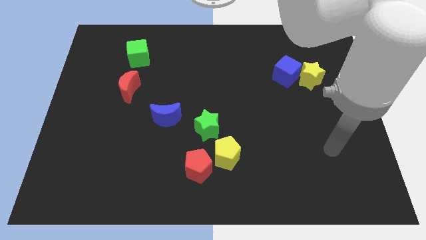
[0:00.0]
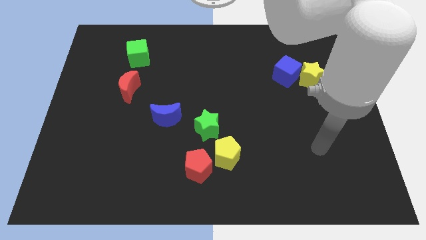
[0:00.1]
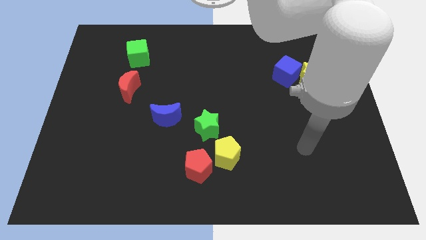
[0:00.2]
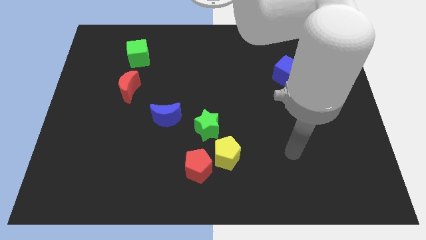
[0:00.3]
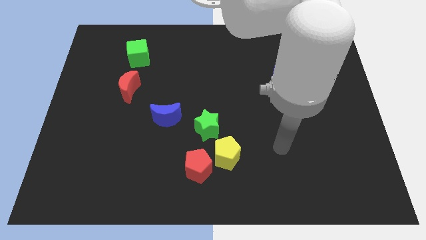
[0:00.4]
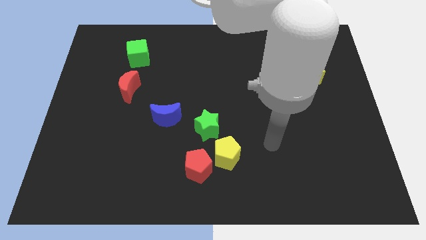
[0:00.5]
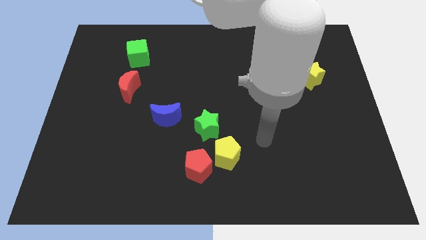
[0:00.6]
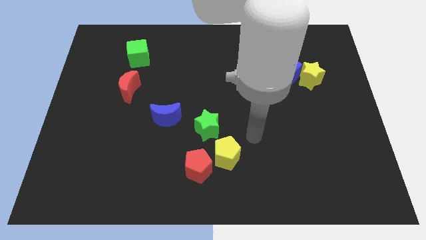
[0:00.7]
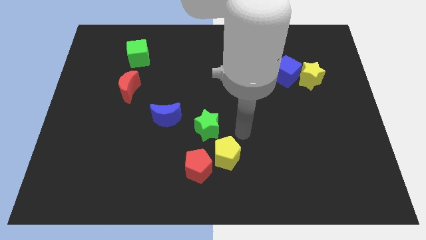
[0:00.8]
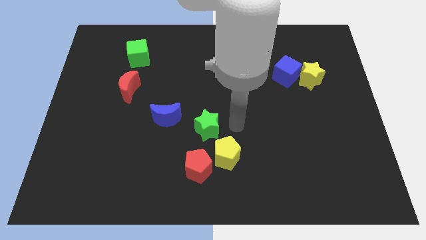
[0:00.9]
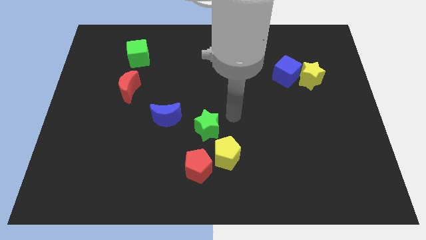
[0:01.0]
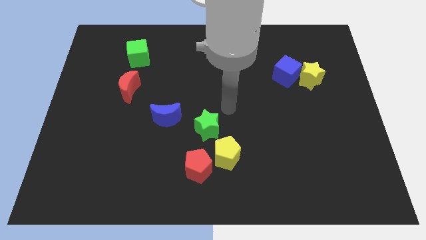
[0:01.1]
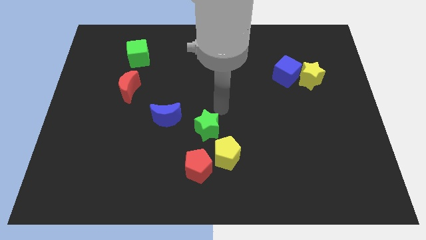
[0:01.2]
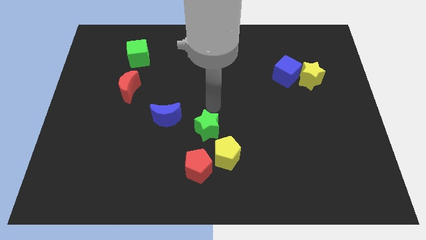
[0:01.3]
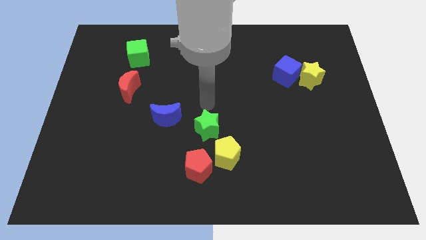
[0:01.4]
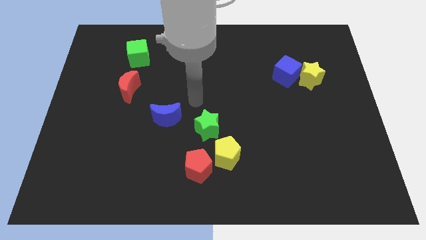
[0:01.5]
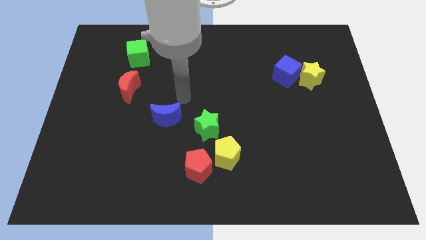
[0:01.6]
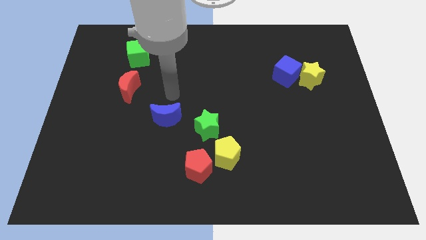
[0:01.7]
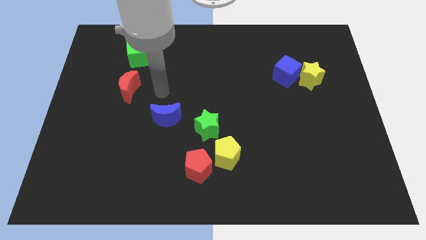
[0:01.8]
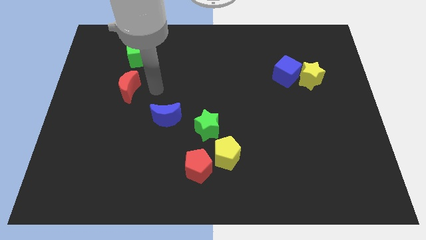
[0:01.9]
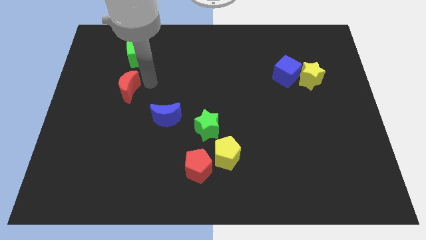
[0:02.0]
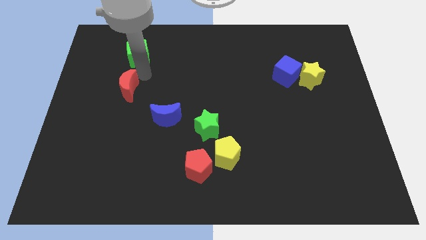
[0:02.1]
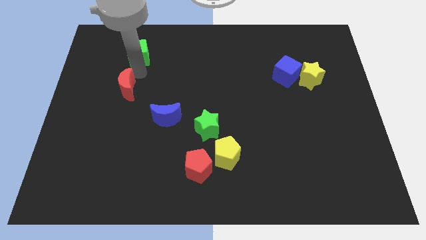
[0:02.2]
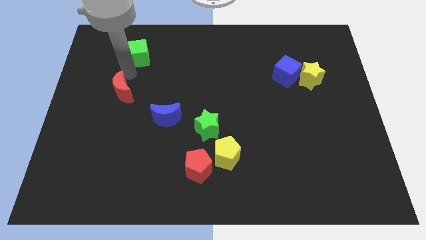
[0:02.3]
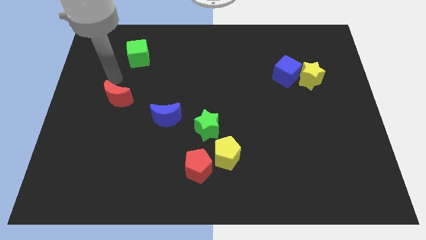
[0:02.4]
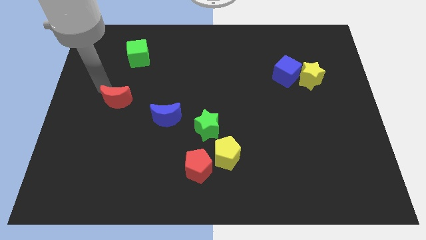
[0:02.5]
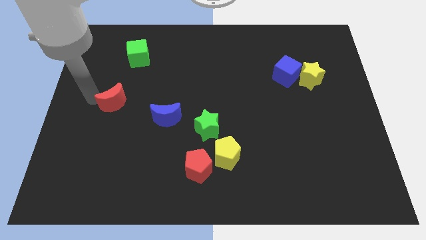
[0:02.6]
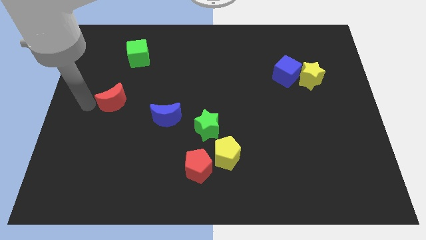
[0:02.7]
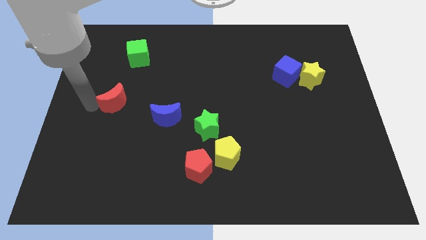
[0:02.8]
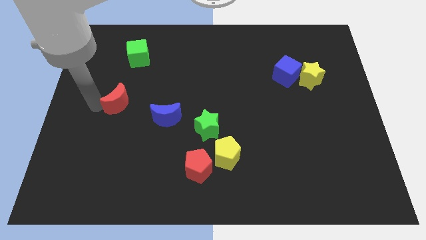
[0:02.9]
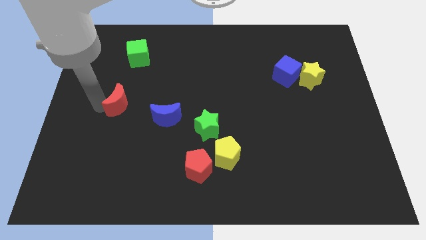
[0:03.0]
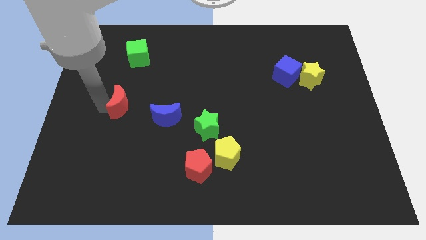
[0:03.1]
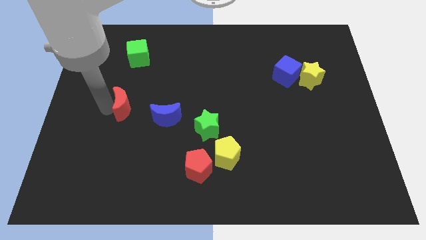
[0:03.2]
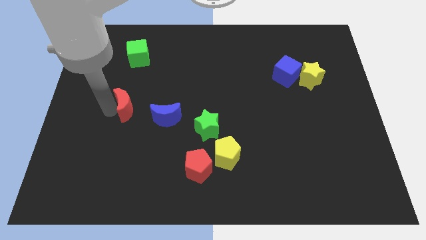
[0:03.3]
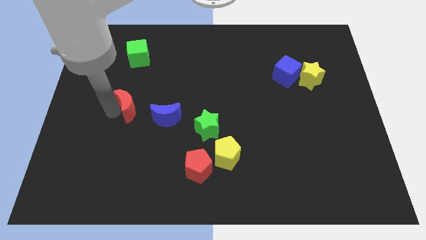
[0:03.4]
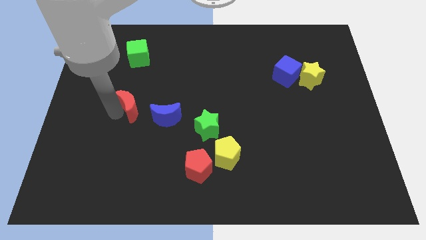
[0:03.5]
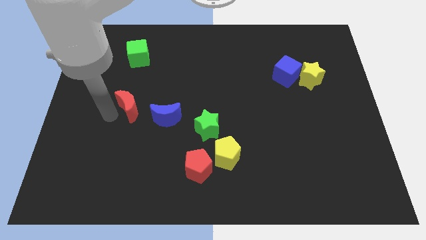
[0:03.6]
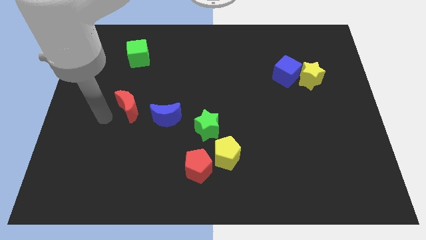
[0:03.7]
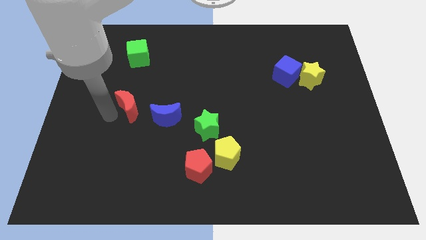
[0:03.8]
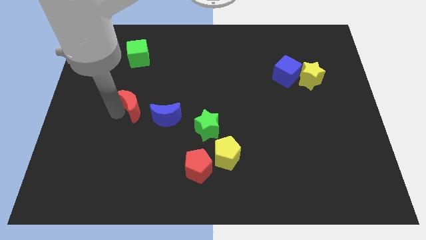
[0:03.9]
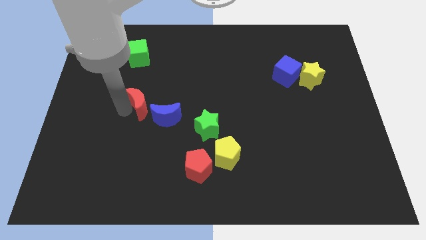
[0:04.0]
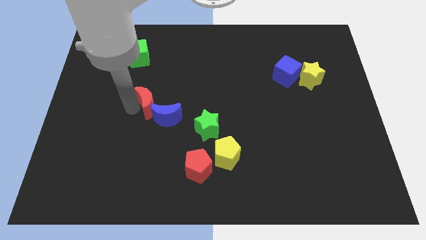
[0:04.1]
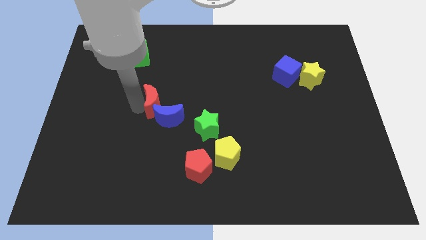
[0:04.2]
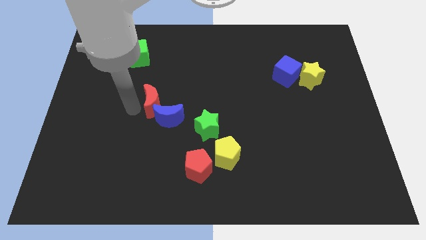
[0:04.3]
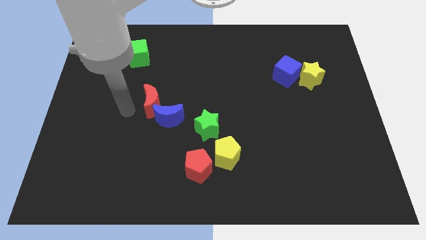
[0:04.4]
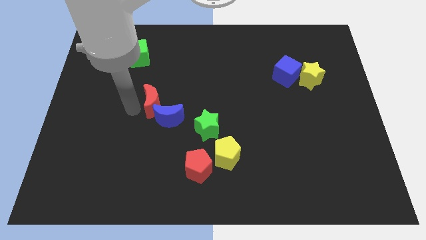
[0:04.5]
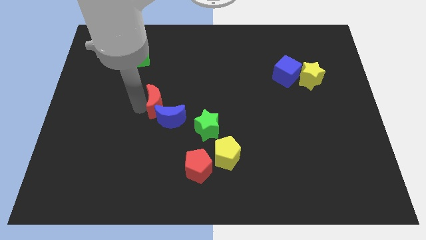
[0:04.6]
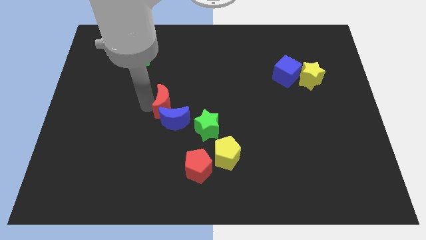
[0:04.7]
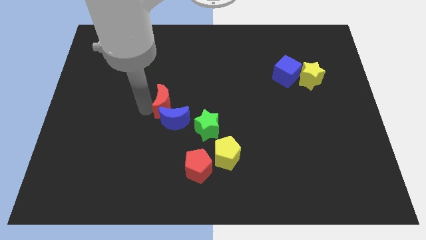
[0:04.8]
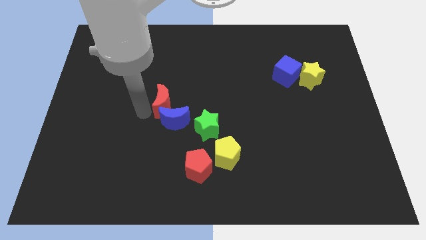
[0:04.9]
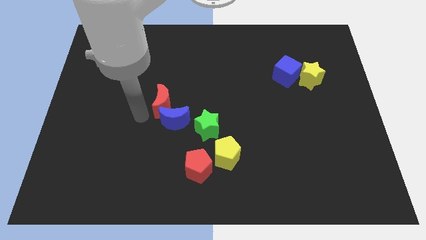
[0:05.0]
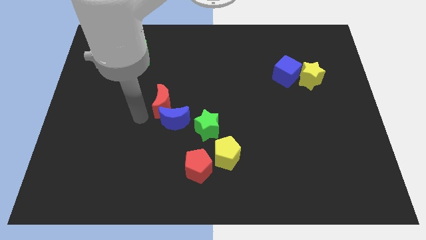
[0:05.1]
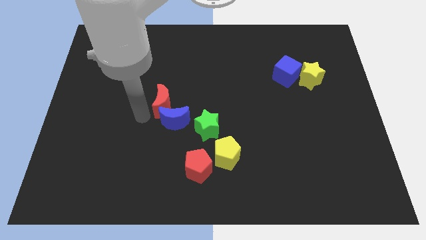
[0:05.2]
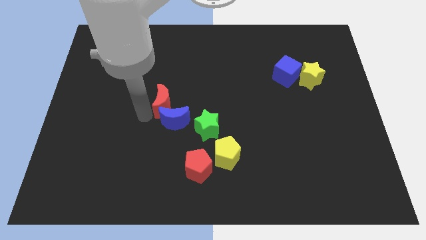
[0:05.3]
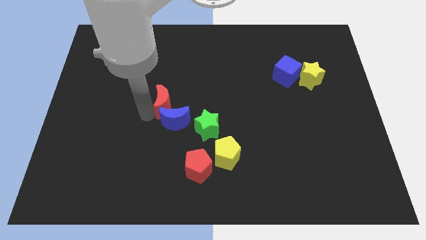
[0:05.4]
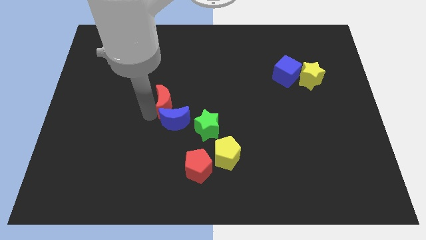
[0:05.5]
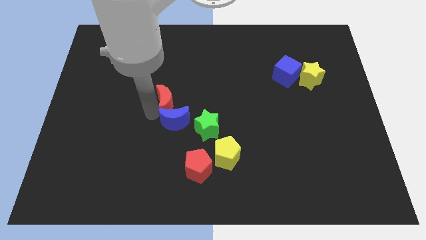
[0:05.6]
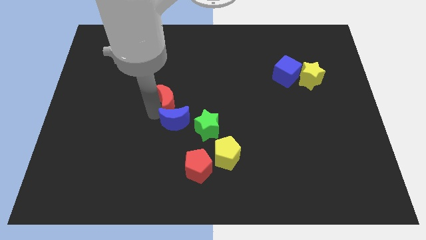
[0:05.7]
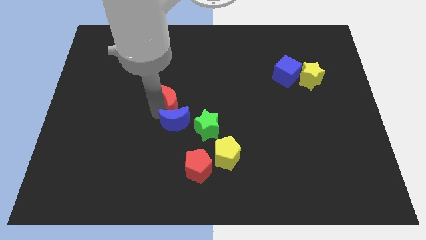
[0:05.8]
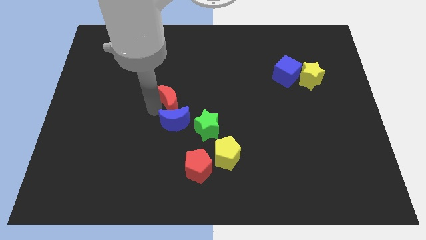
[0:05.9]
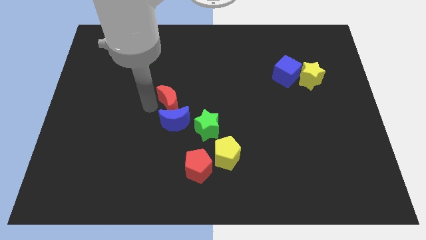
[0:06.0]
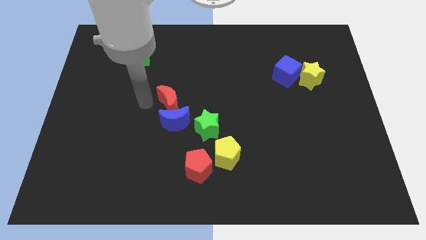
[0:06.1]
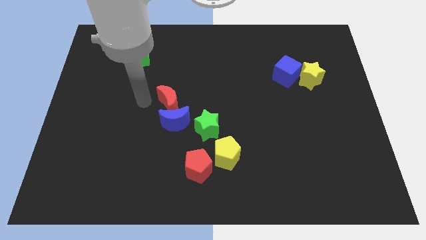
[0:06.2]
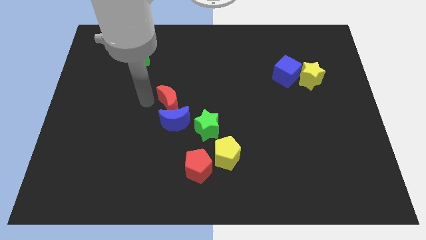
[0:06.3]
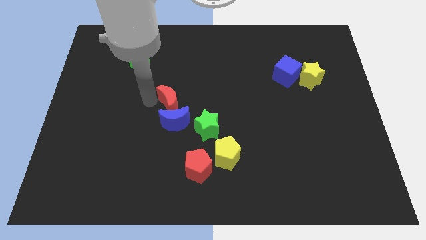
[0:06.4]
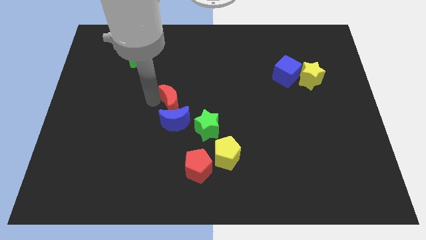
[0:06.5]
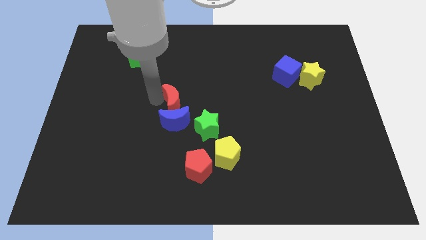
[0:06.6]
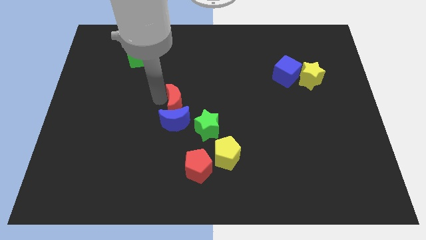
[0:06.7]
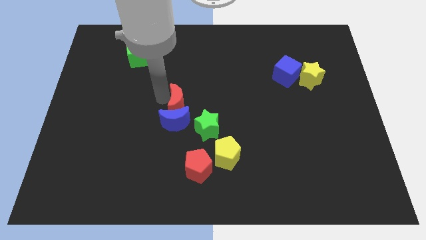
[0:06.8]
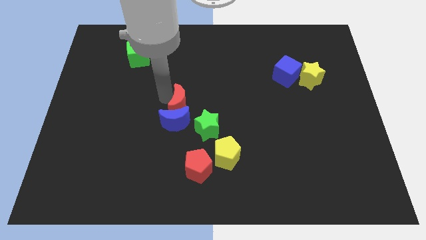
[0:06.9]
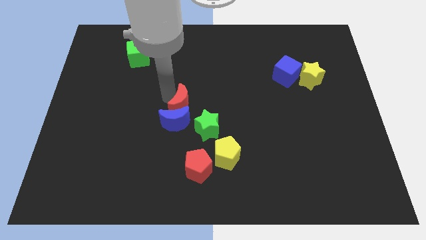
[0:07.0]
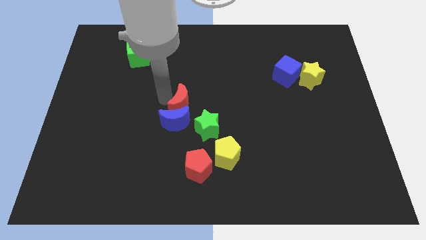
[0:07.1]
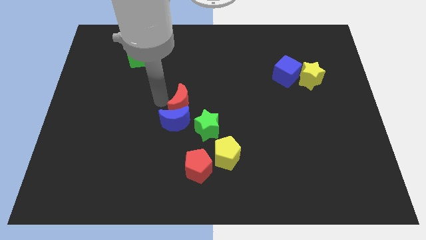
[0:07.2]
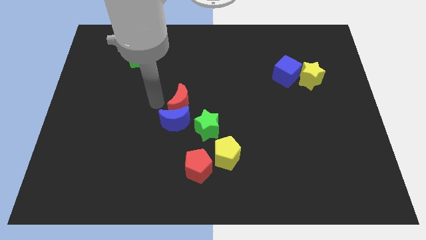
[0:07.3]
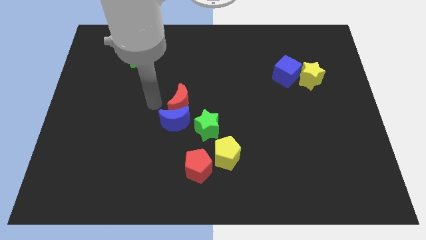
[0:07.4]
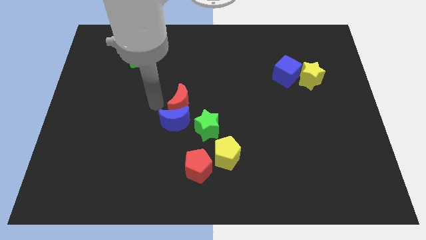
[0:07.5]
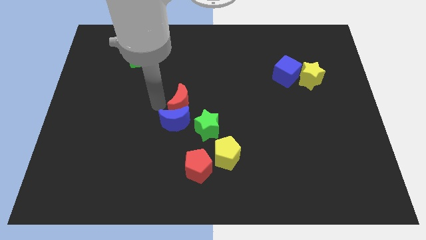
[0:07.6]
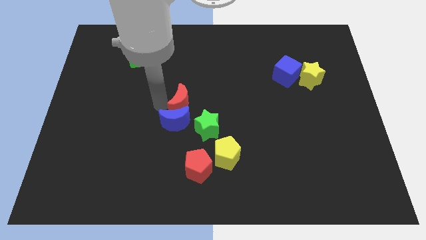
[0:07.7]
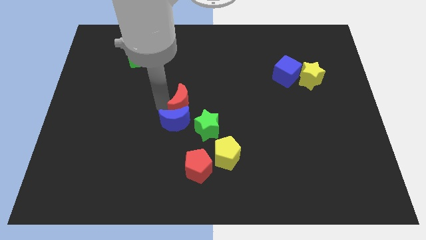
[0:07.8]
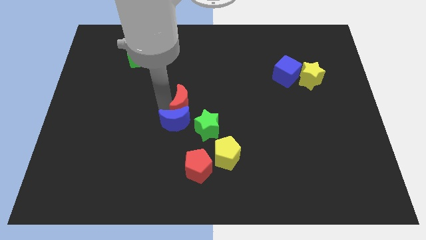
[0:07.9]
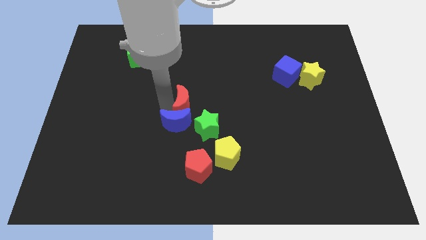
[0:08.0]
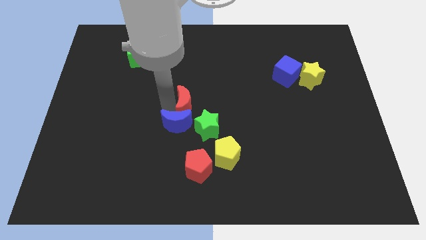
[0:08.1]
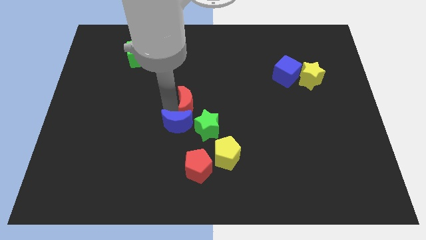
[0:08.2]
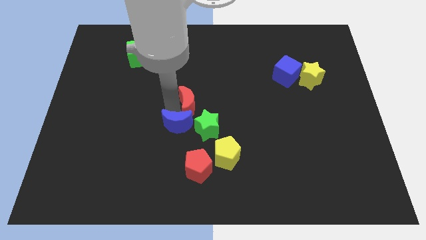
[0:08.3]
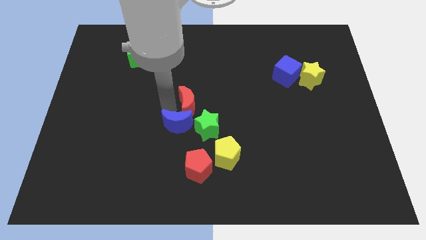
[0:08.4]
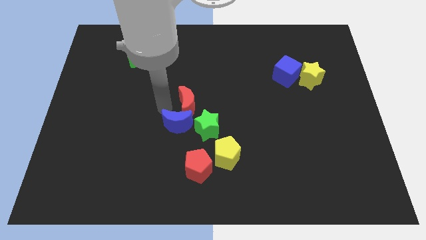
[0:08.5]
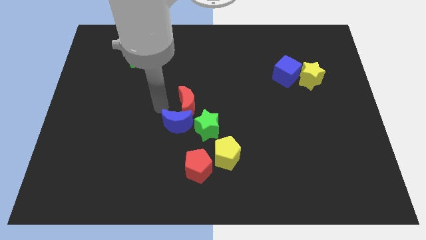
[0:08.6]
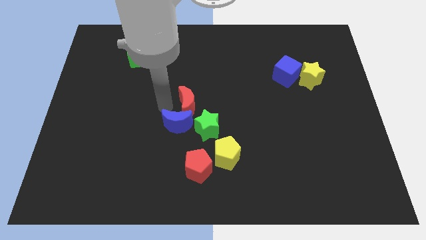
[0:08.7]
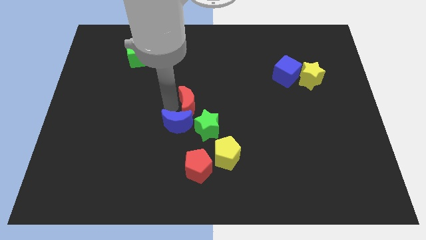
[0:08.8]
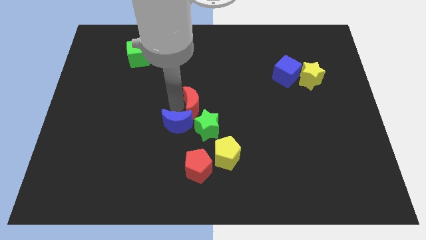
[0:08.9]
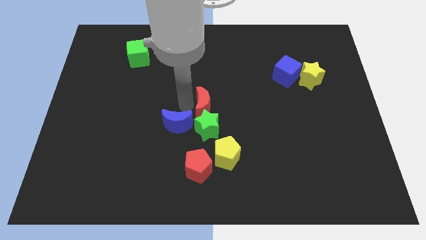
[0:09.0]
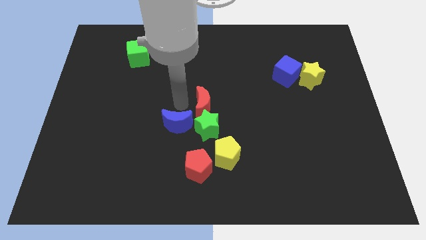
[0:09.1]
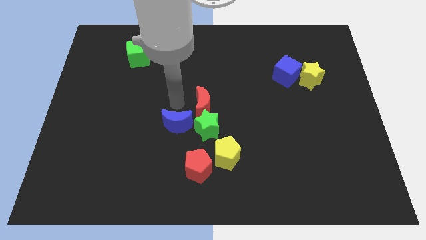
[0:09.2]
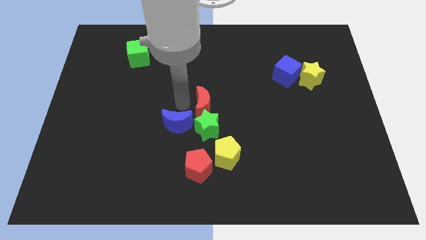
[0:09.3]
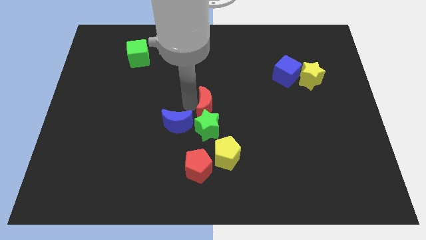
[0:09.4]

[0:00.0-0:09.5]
push the red moon diagonally up and to the right of the green star
